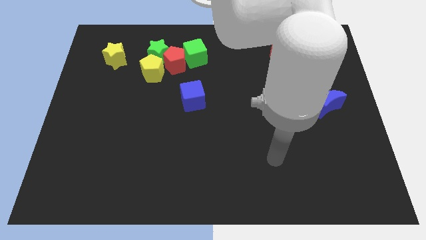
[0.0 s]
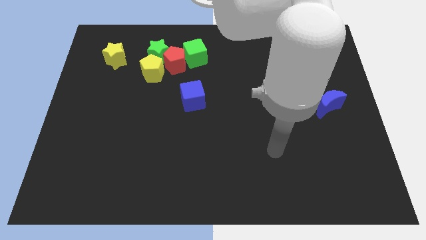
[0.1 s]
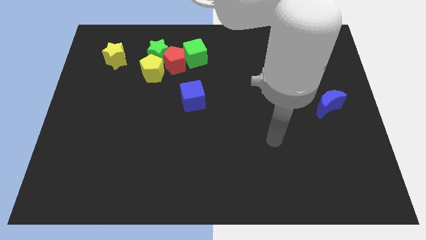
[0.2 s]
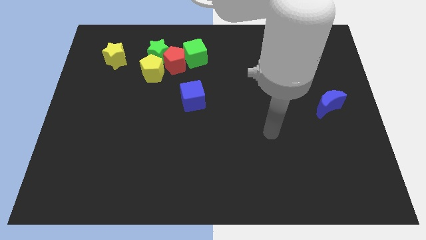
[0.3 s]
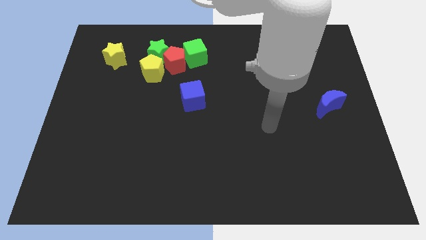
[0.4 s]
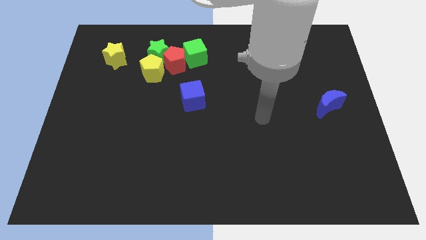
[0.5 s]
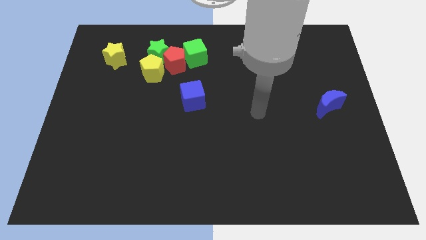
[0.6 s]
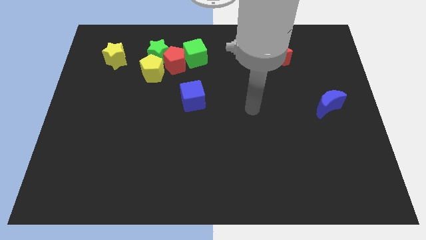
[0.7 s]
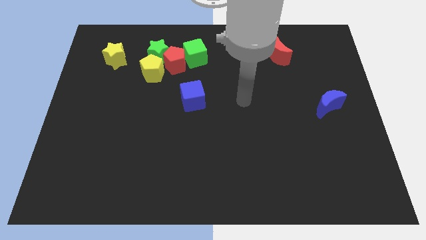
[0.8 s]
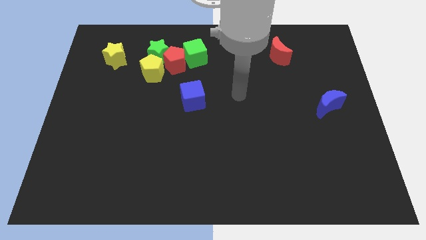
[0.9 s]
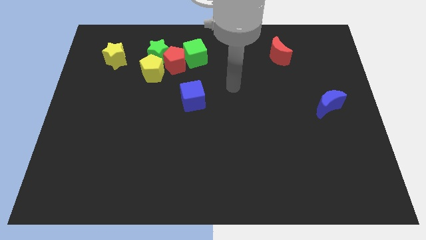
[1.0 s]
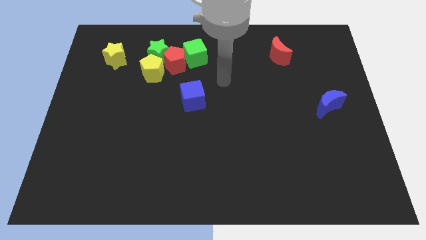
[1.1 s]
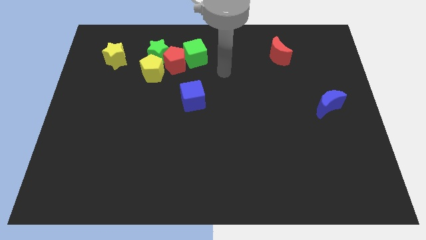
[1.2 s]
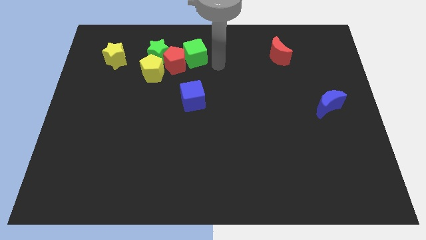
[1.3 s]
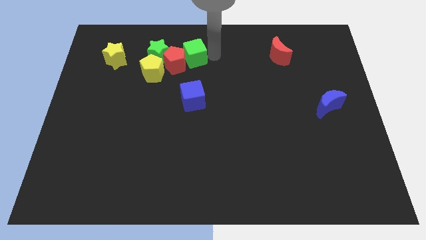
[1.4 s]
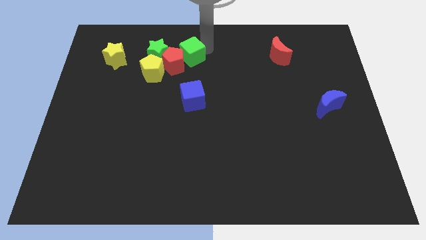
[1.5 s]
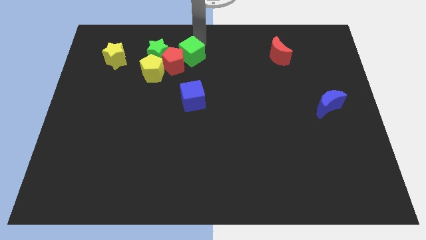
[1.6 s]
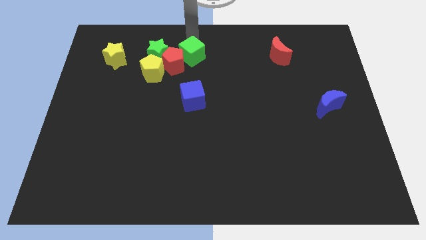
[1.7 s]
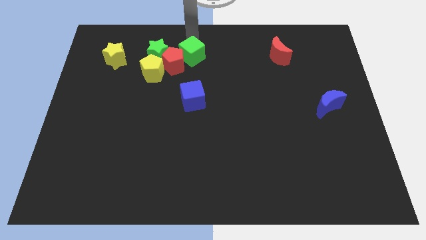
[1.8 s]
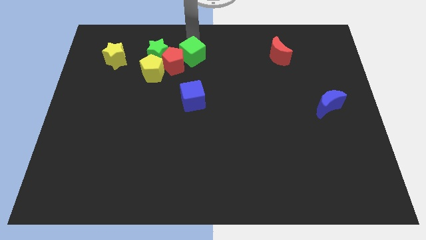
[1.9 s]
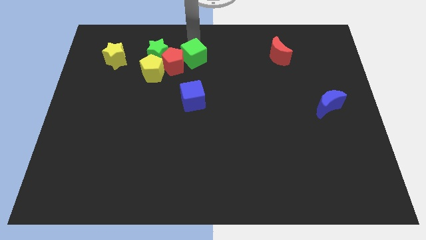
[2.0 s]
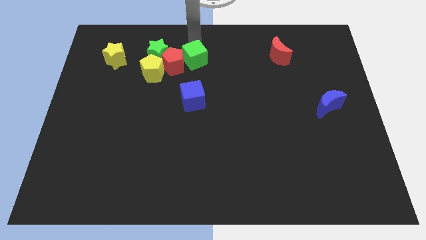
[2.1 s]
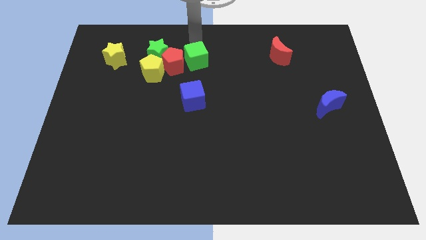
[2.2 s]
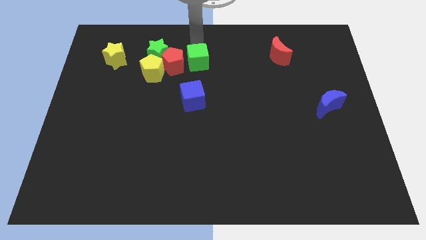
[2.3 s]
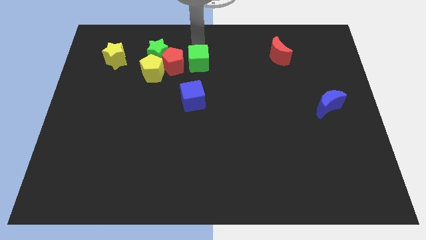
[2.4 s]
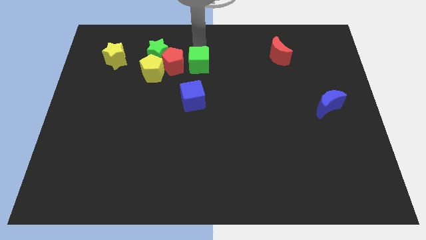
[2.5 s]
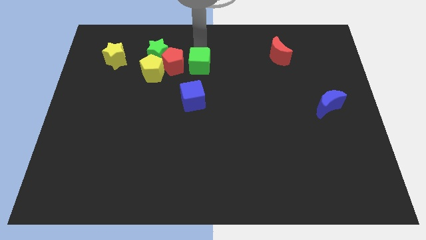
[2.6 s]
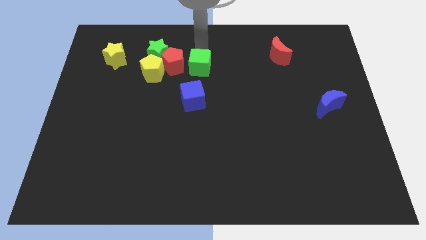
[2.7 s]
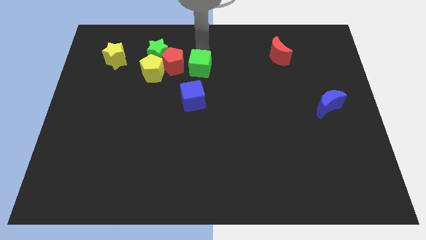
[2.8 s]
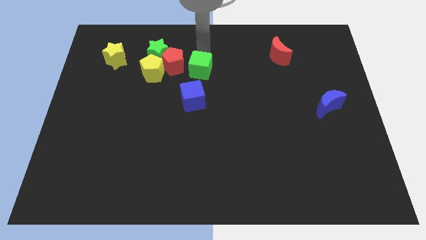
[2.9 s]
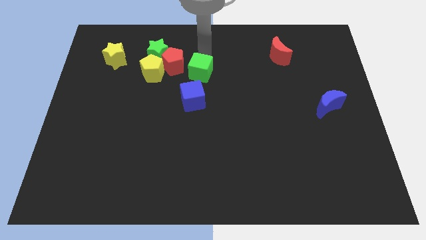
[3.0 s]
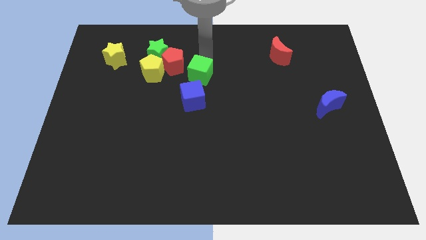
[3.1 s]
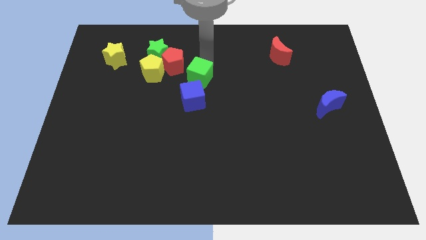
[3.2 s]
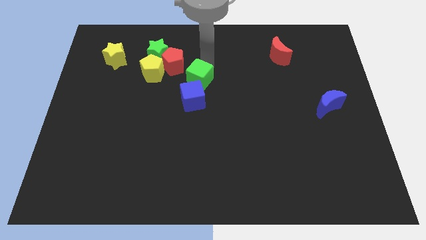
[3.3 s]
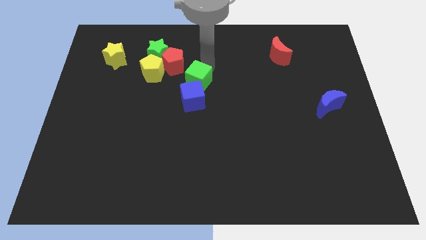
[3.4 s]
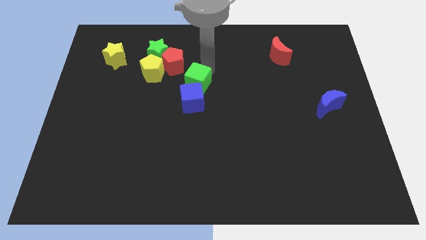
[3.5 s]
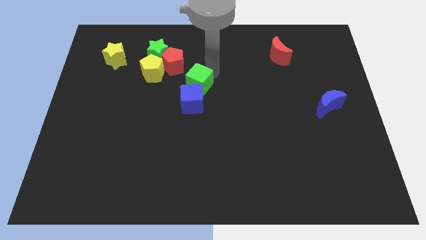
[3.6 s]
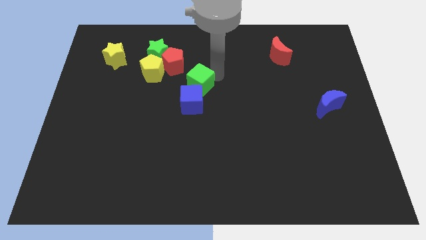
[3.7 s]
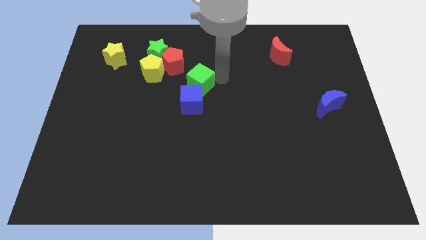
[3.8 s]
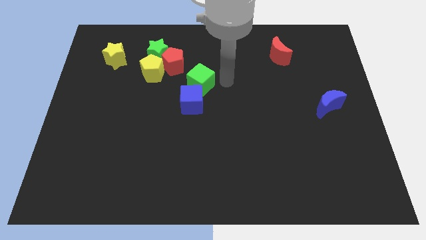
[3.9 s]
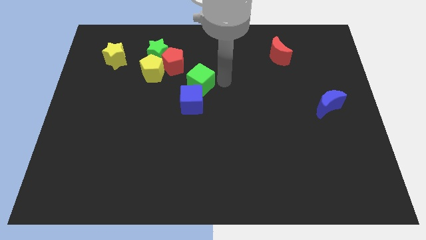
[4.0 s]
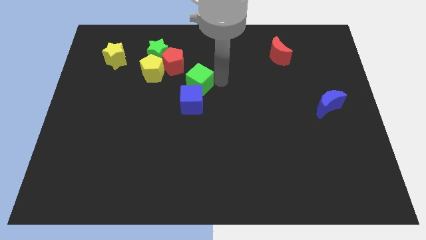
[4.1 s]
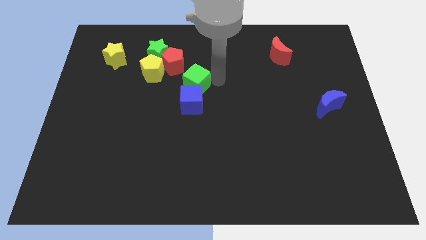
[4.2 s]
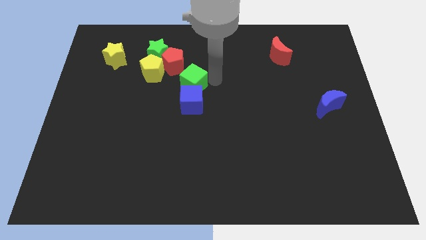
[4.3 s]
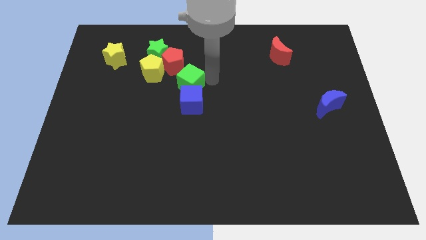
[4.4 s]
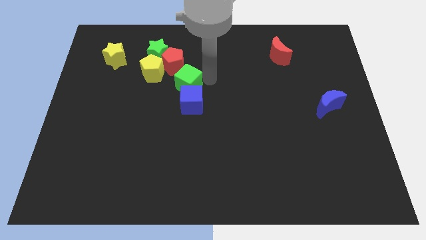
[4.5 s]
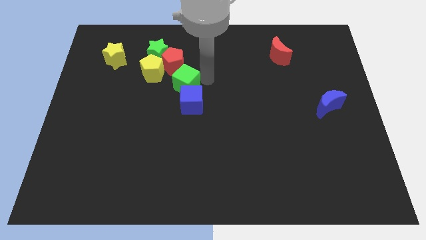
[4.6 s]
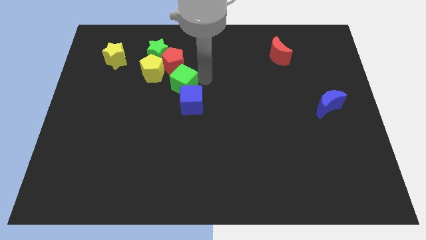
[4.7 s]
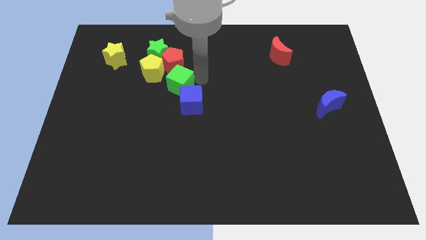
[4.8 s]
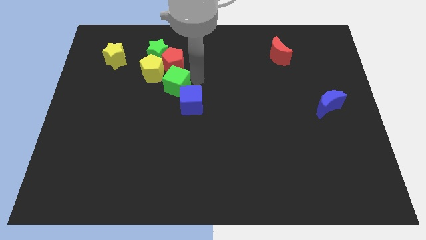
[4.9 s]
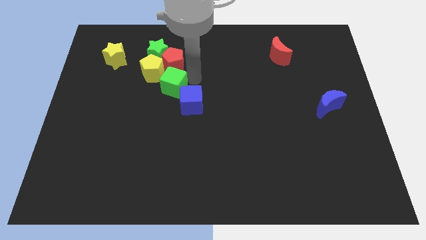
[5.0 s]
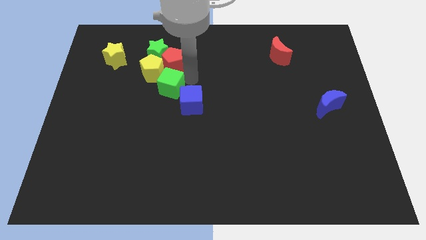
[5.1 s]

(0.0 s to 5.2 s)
push the green cube diagonally down and to the left of the red pentagon

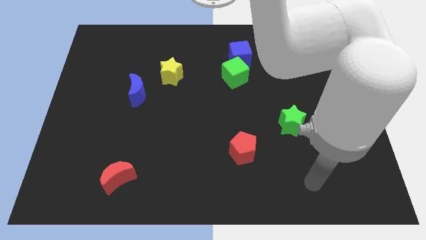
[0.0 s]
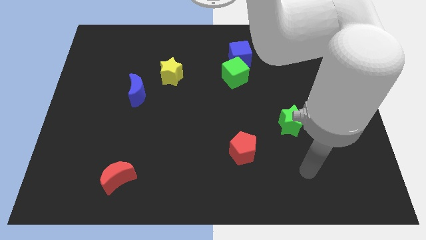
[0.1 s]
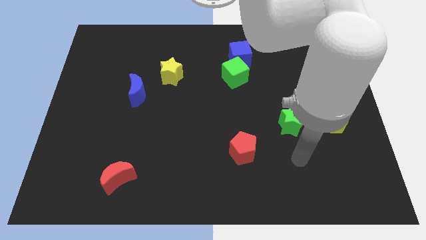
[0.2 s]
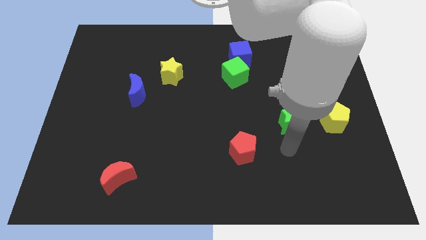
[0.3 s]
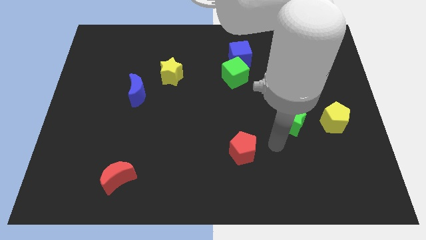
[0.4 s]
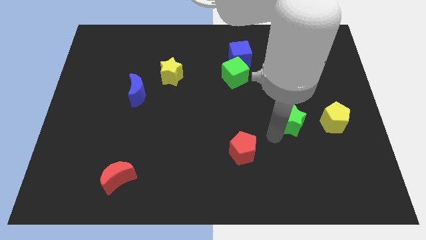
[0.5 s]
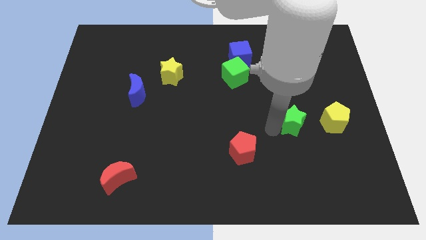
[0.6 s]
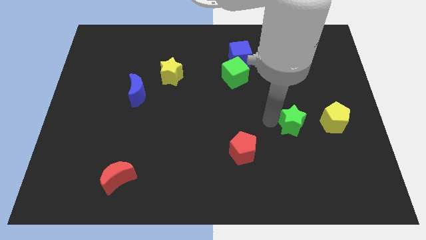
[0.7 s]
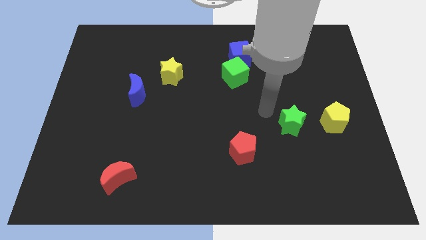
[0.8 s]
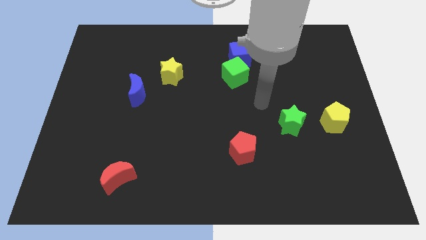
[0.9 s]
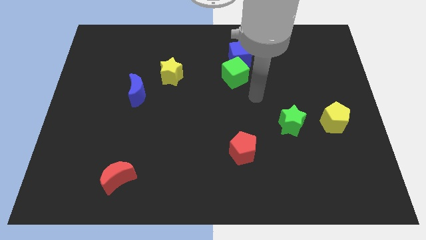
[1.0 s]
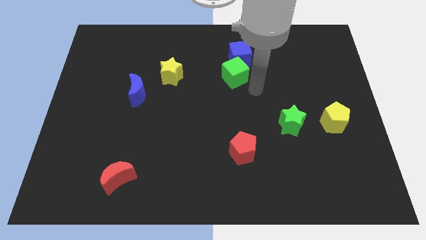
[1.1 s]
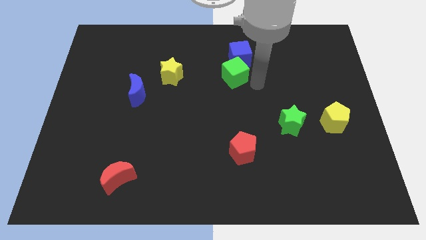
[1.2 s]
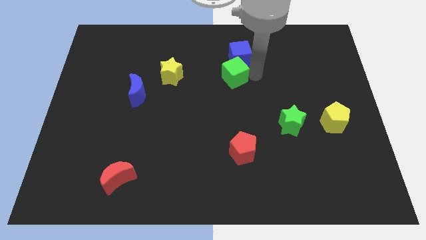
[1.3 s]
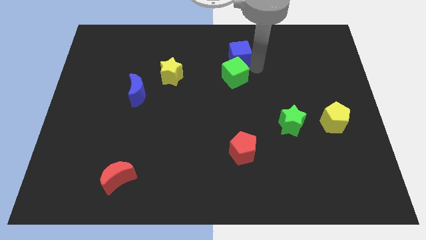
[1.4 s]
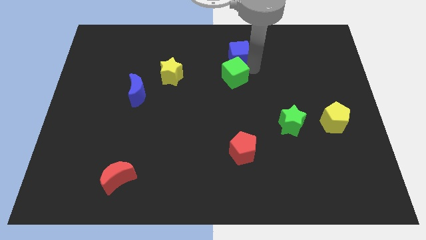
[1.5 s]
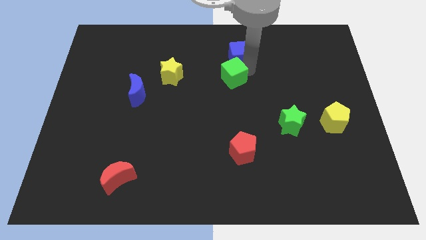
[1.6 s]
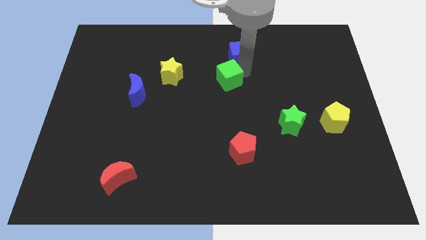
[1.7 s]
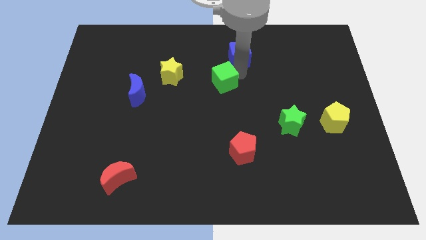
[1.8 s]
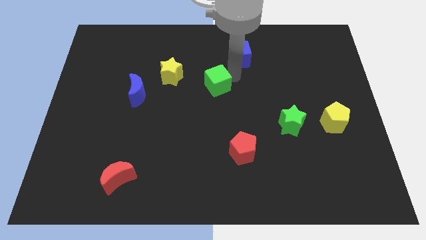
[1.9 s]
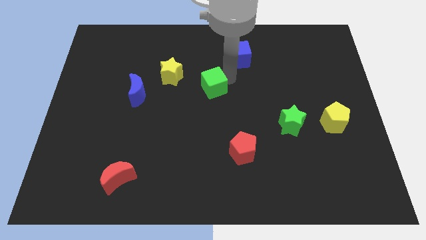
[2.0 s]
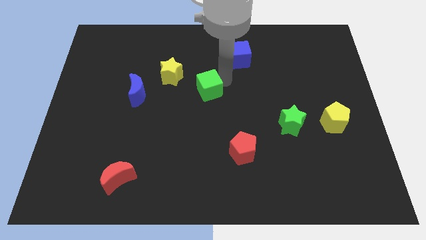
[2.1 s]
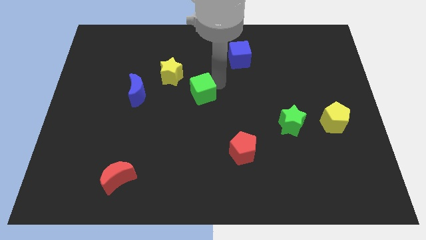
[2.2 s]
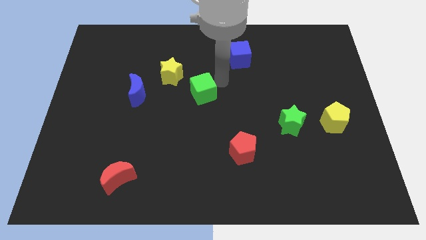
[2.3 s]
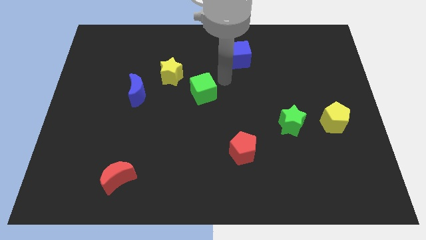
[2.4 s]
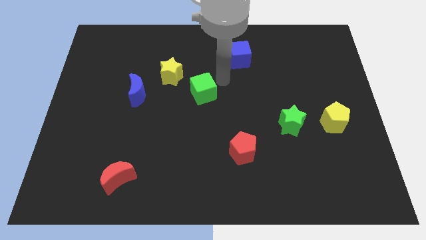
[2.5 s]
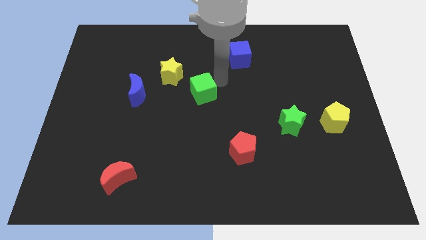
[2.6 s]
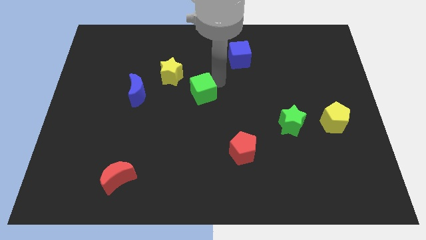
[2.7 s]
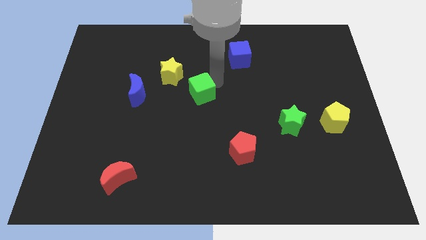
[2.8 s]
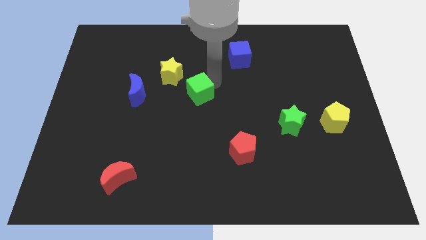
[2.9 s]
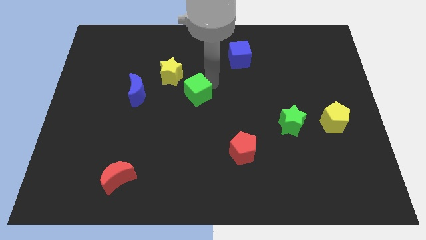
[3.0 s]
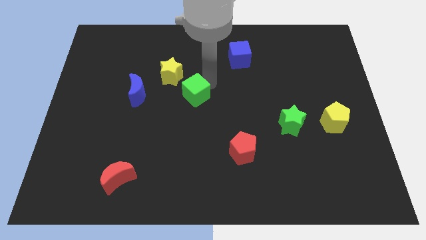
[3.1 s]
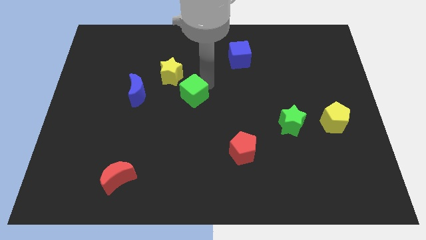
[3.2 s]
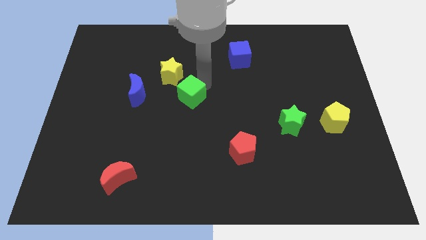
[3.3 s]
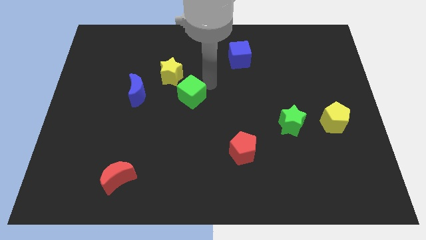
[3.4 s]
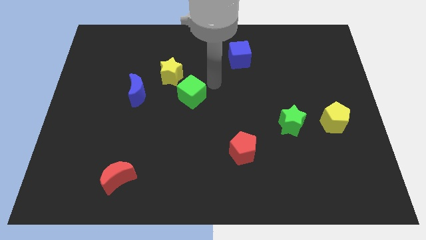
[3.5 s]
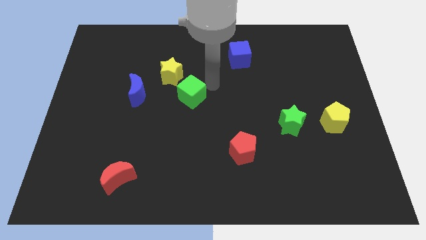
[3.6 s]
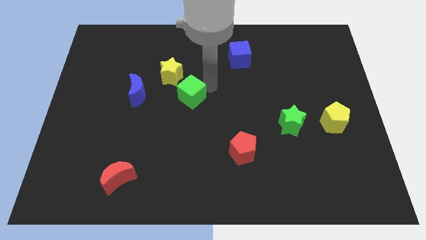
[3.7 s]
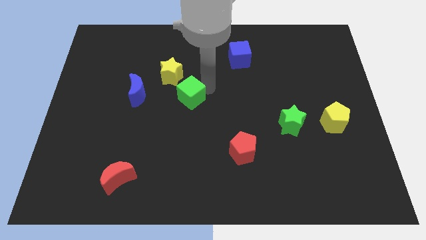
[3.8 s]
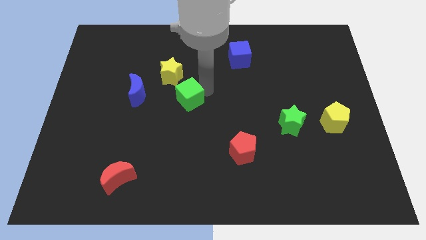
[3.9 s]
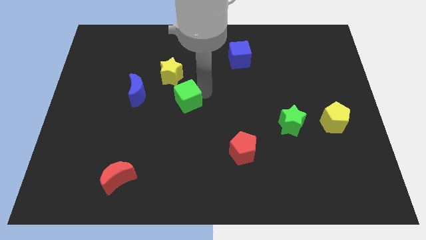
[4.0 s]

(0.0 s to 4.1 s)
slide the green cube below the yellow star
